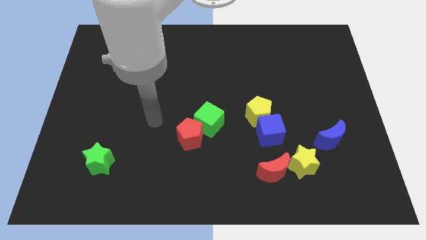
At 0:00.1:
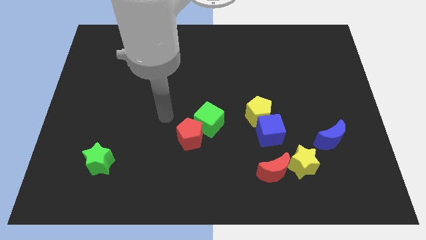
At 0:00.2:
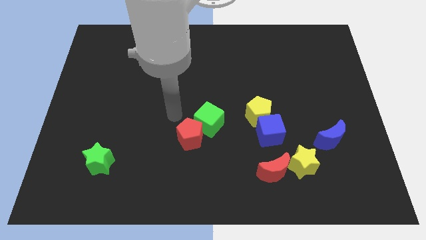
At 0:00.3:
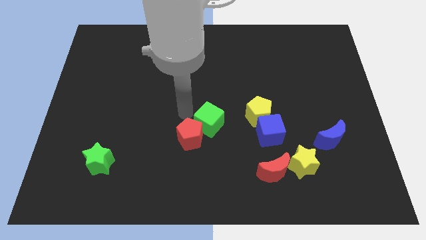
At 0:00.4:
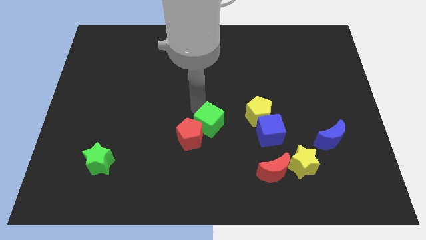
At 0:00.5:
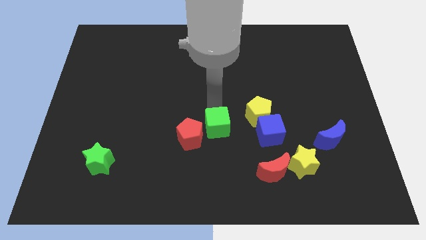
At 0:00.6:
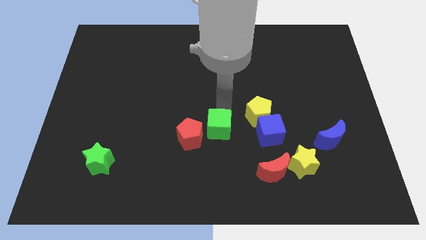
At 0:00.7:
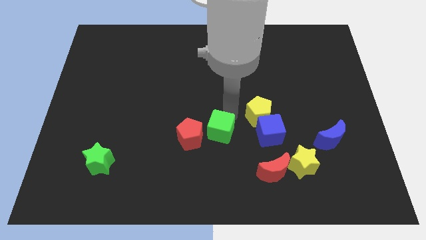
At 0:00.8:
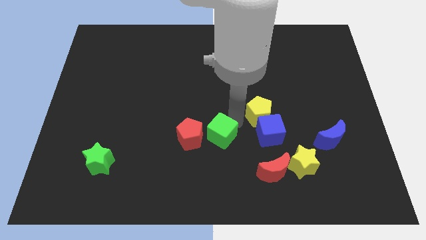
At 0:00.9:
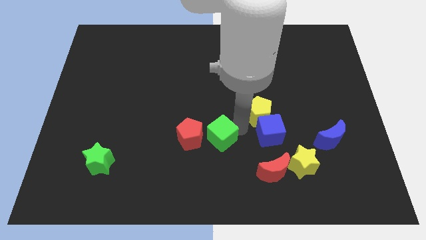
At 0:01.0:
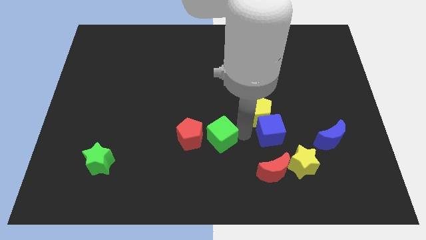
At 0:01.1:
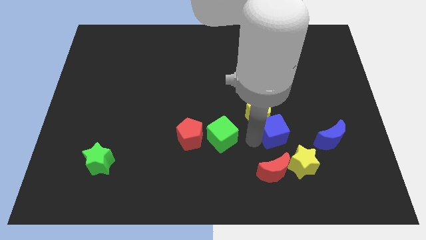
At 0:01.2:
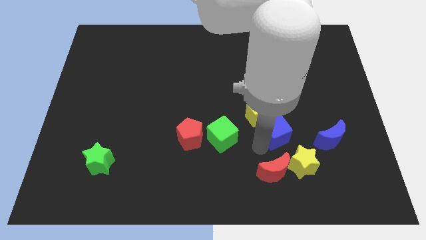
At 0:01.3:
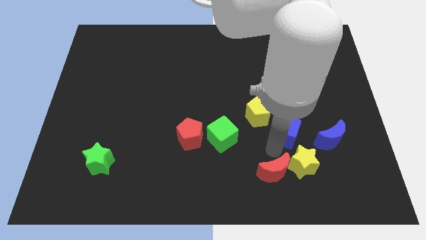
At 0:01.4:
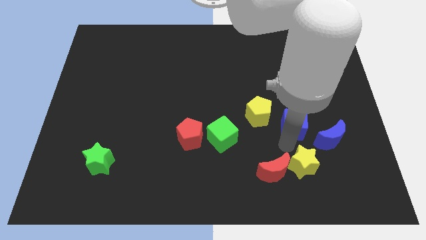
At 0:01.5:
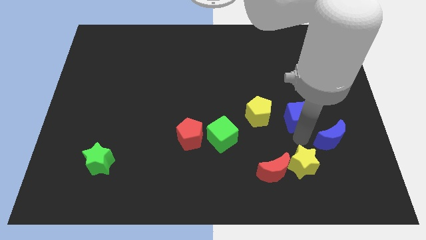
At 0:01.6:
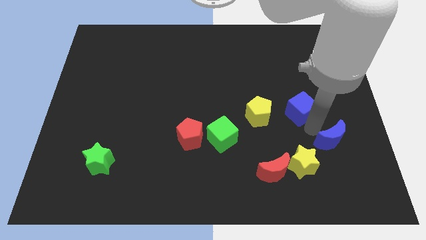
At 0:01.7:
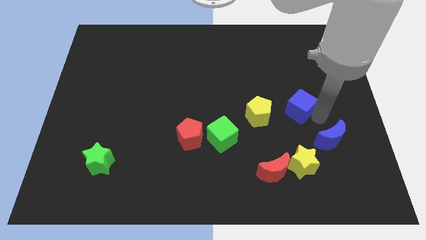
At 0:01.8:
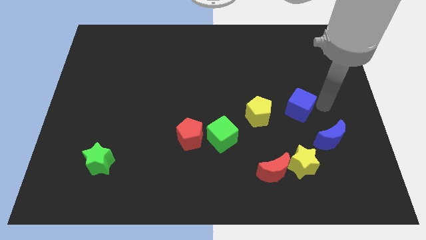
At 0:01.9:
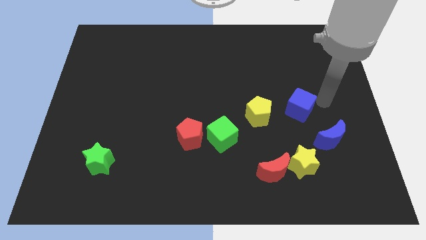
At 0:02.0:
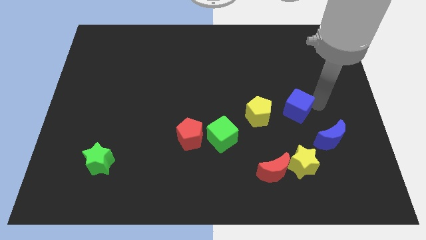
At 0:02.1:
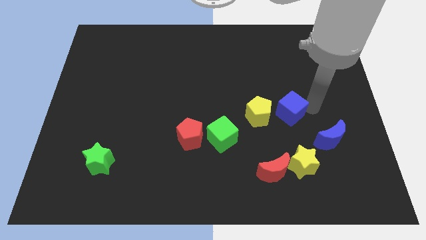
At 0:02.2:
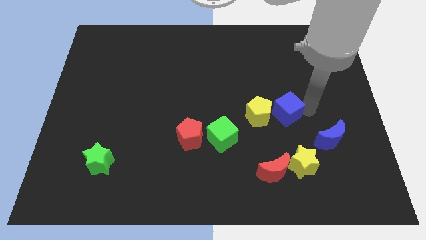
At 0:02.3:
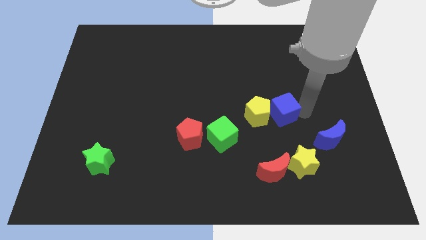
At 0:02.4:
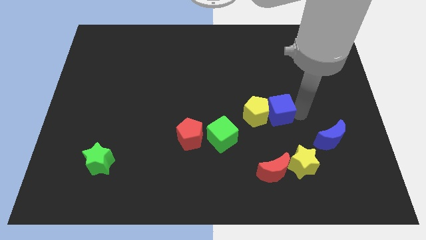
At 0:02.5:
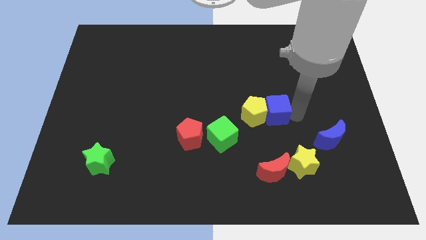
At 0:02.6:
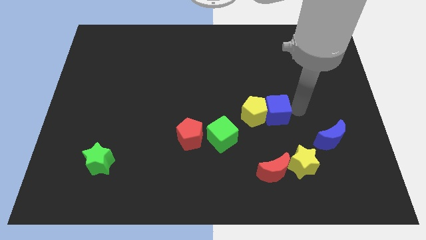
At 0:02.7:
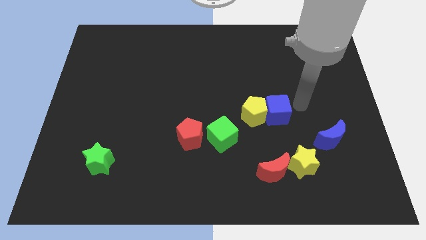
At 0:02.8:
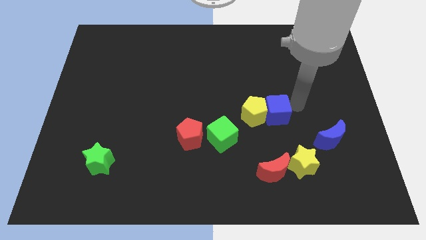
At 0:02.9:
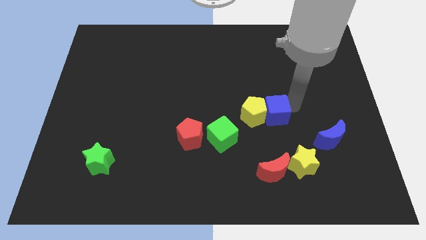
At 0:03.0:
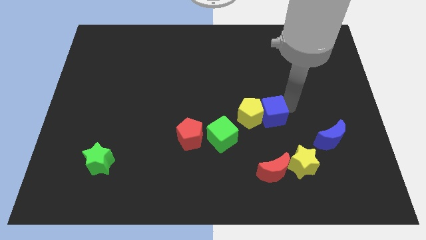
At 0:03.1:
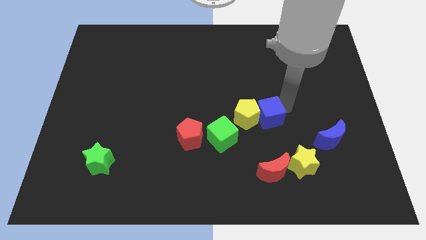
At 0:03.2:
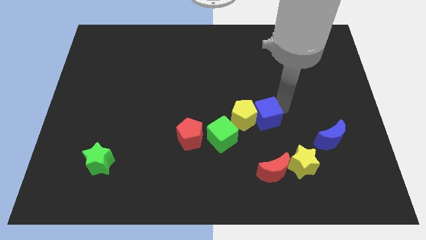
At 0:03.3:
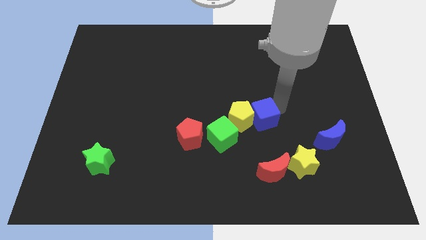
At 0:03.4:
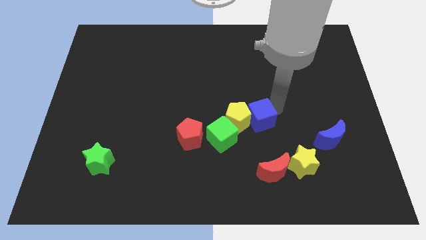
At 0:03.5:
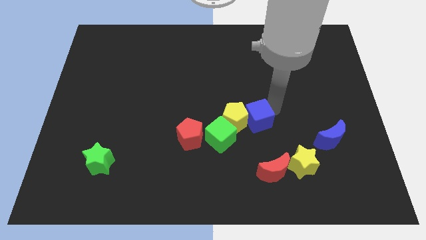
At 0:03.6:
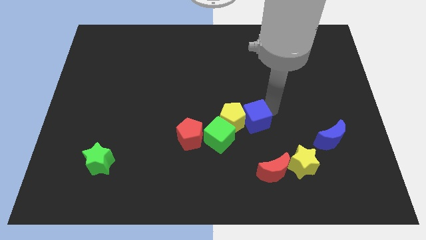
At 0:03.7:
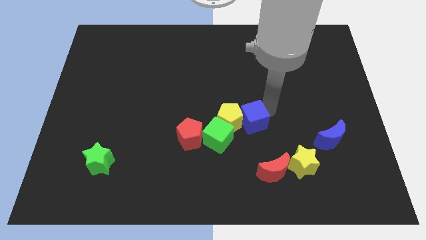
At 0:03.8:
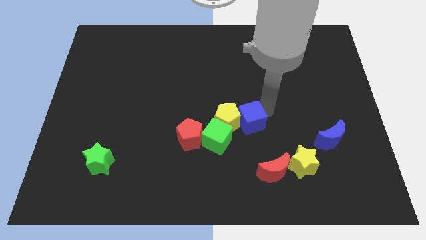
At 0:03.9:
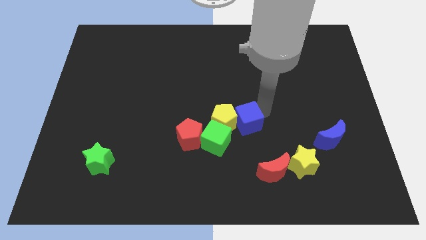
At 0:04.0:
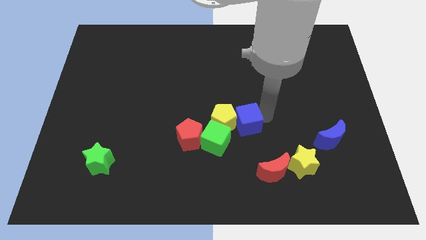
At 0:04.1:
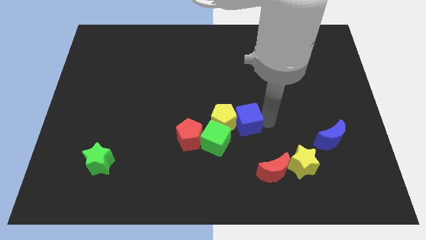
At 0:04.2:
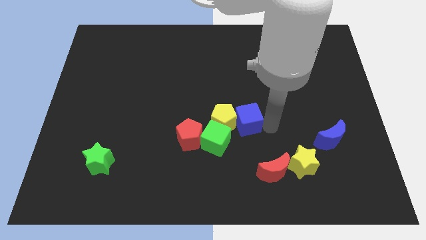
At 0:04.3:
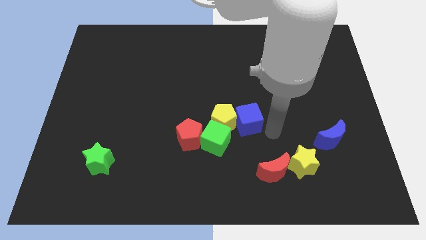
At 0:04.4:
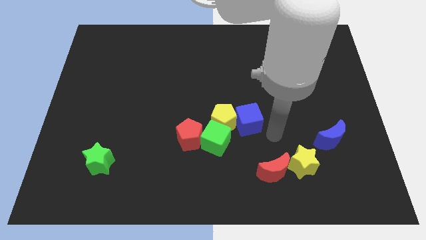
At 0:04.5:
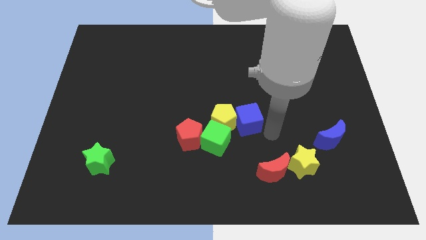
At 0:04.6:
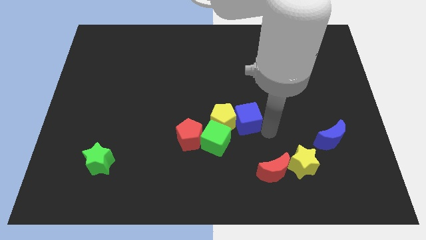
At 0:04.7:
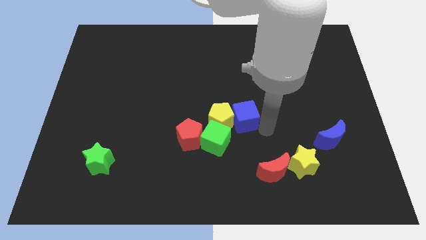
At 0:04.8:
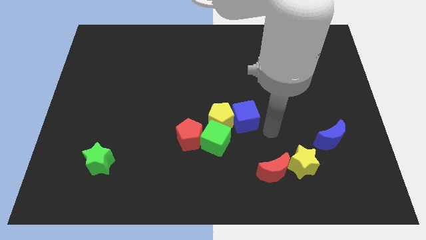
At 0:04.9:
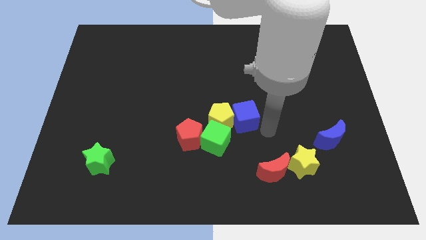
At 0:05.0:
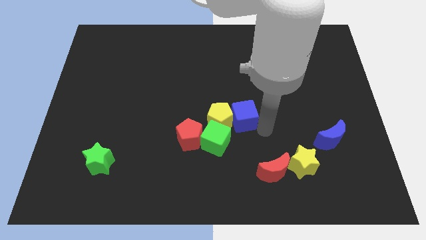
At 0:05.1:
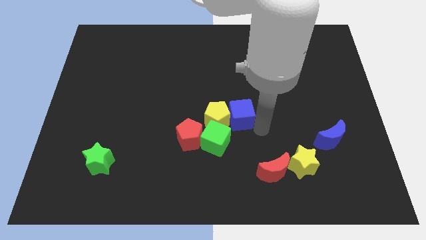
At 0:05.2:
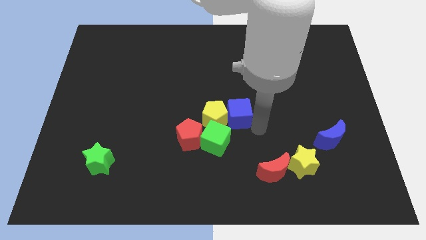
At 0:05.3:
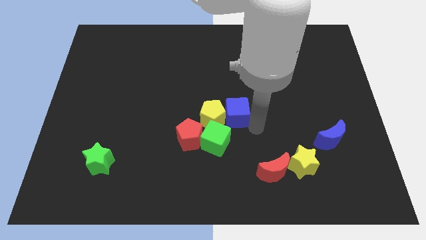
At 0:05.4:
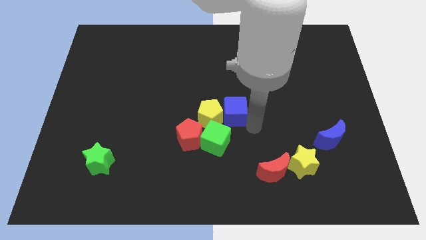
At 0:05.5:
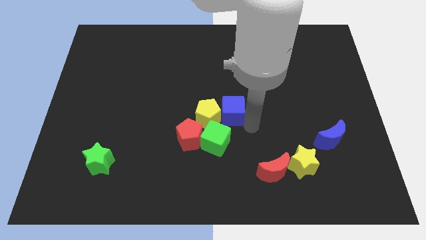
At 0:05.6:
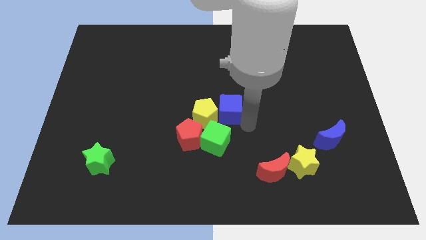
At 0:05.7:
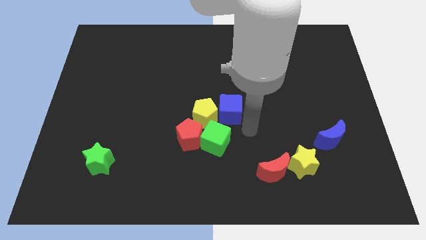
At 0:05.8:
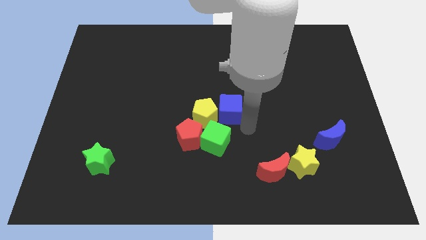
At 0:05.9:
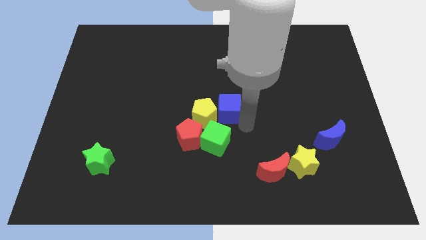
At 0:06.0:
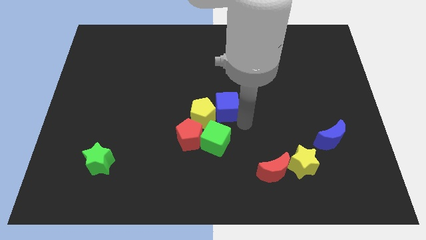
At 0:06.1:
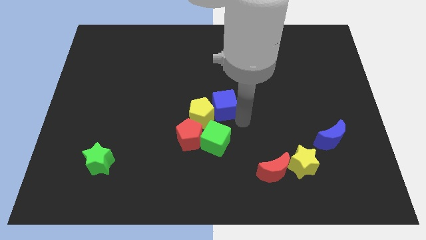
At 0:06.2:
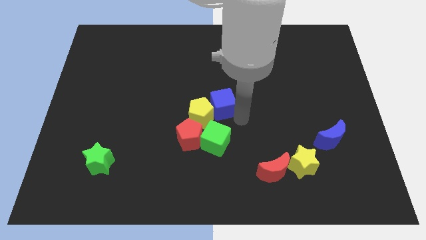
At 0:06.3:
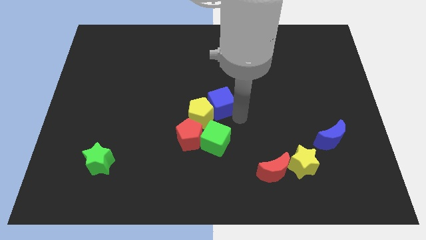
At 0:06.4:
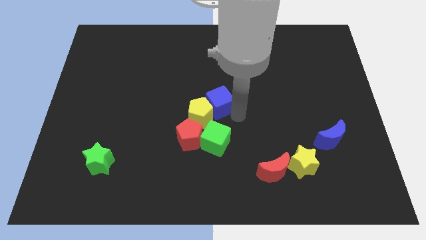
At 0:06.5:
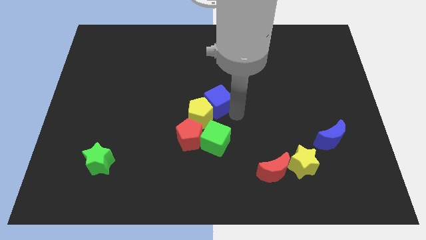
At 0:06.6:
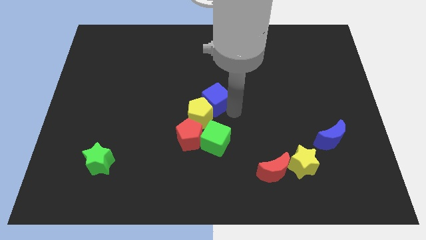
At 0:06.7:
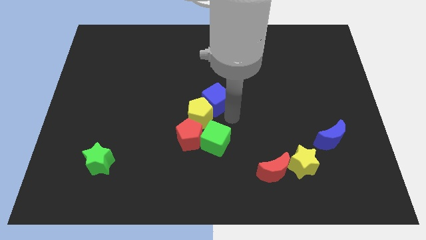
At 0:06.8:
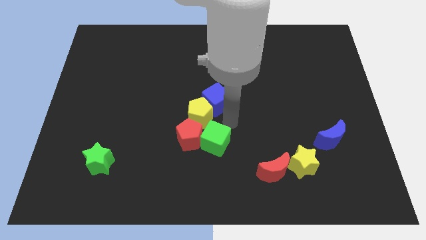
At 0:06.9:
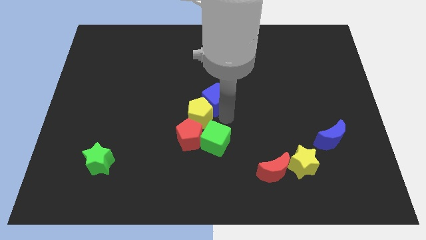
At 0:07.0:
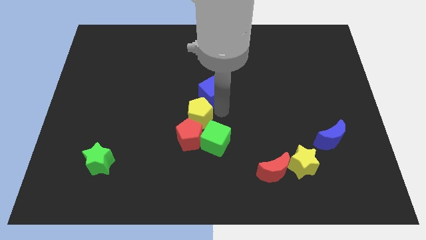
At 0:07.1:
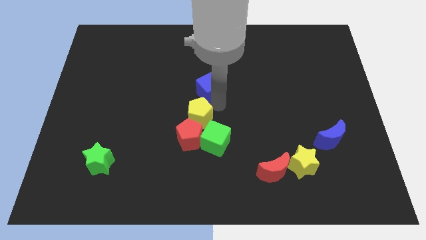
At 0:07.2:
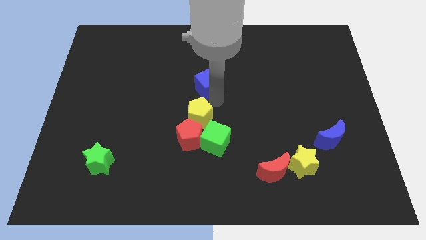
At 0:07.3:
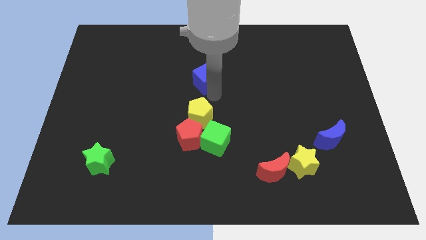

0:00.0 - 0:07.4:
move the blue cube up and then left

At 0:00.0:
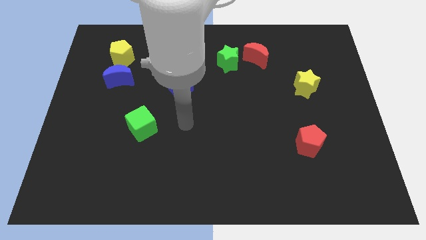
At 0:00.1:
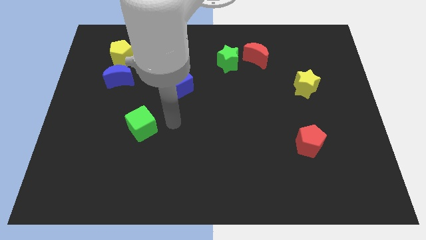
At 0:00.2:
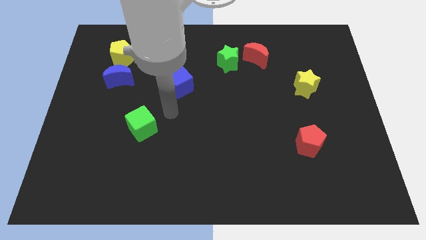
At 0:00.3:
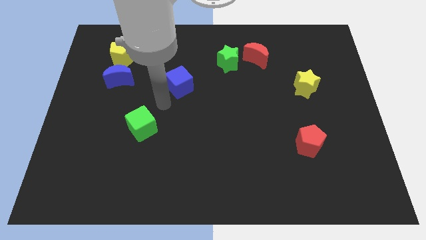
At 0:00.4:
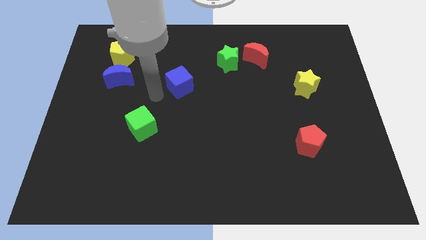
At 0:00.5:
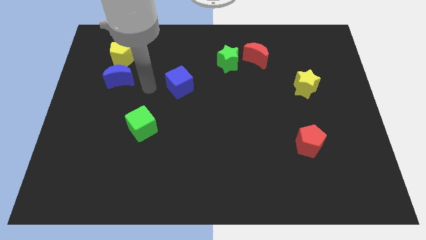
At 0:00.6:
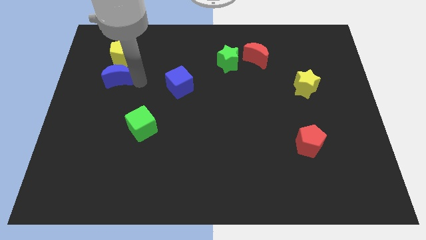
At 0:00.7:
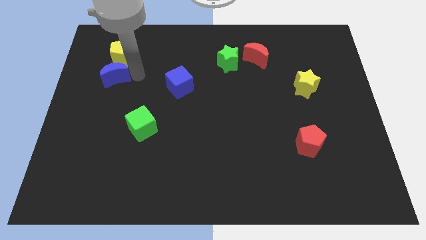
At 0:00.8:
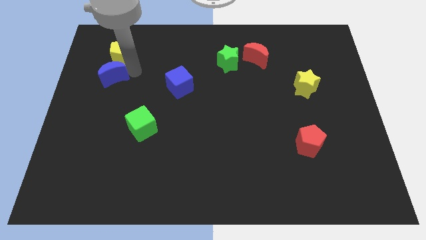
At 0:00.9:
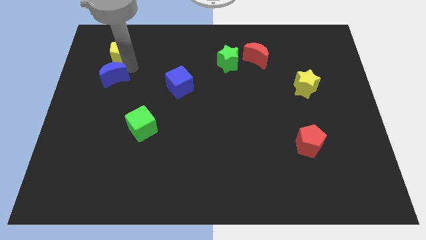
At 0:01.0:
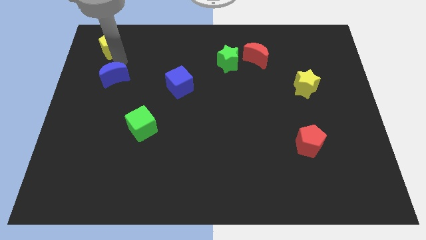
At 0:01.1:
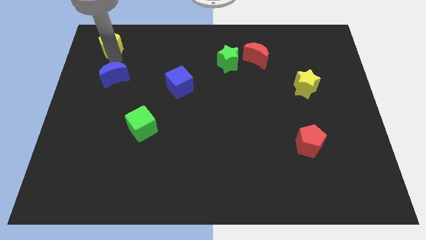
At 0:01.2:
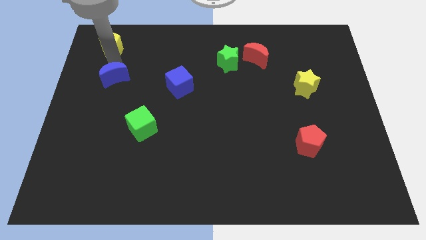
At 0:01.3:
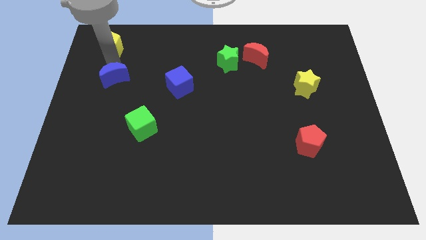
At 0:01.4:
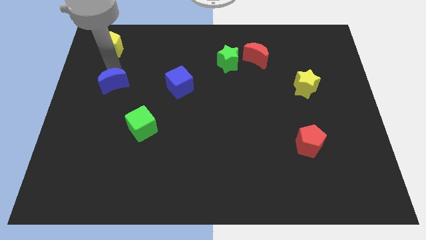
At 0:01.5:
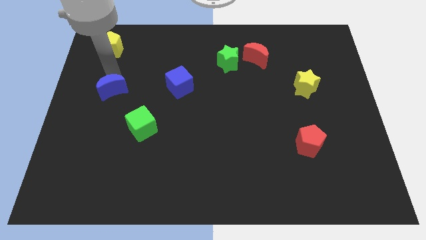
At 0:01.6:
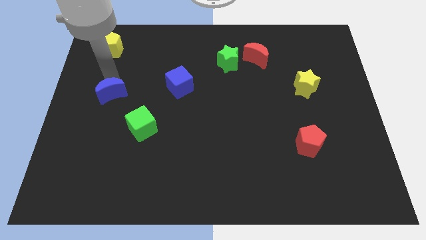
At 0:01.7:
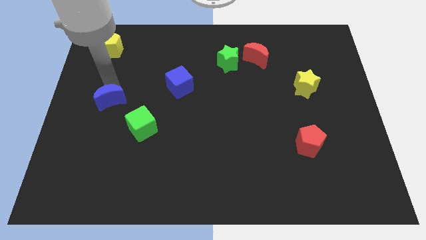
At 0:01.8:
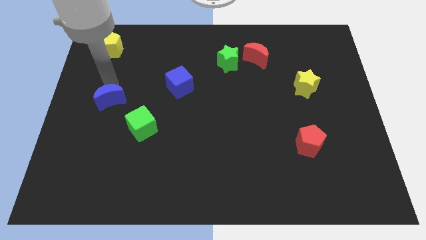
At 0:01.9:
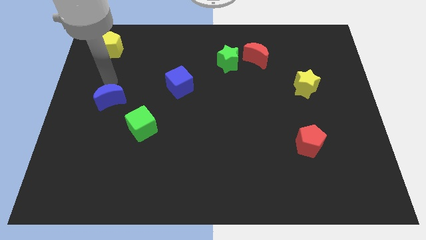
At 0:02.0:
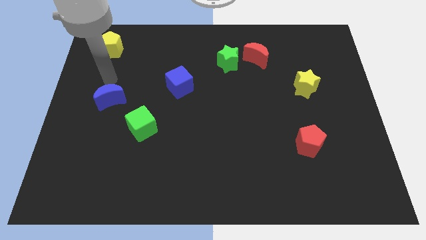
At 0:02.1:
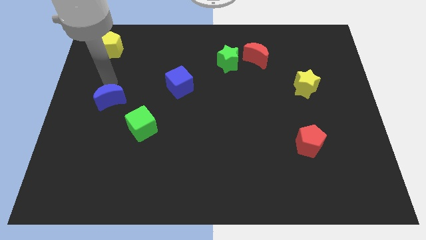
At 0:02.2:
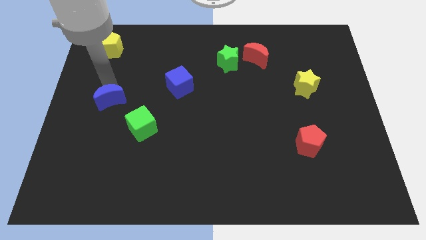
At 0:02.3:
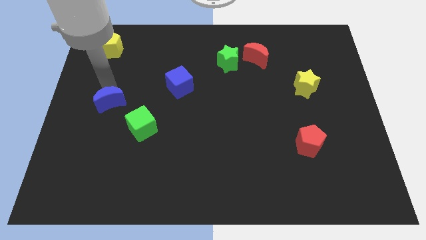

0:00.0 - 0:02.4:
slightly slide the blue moon downwards
